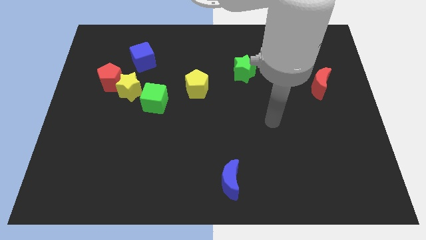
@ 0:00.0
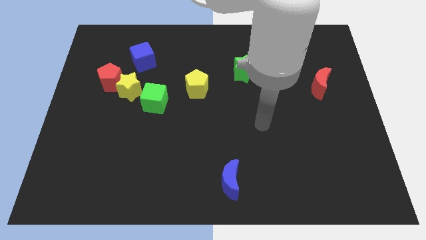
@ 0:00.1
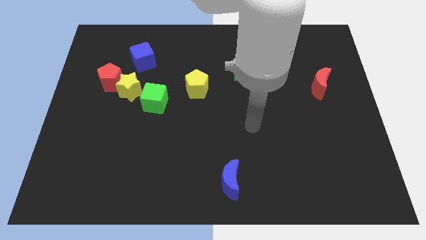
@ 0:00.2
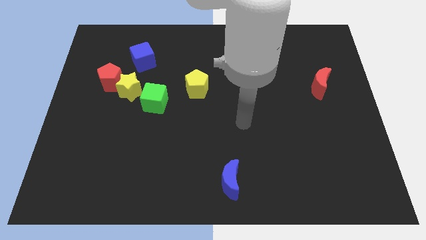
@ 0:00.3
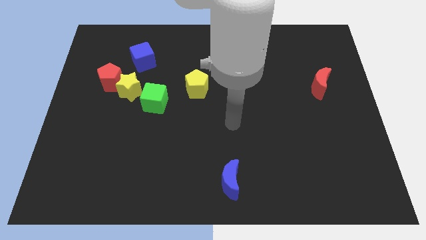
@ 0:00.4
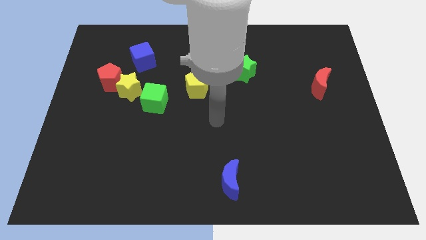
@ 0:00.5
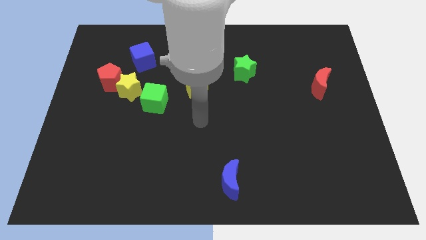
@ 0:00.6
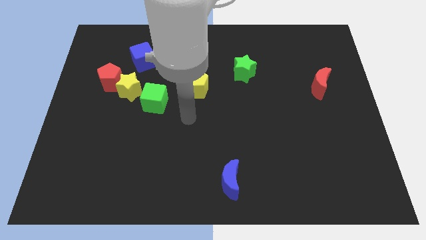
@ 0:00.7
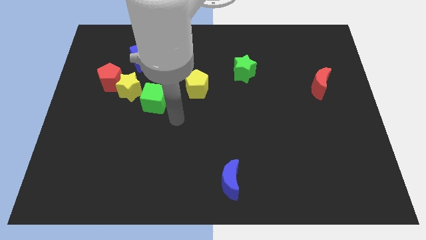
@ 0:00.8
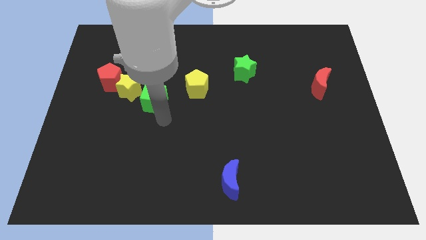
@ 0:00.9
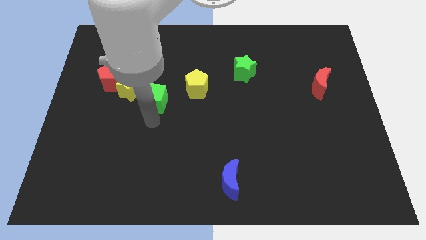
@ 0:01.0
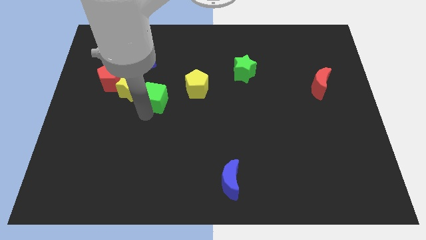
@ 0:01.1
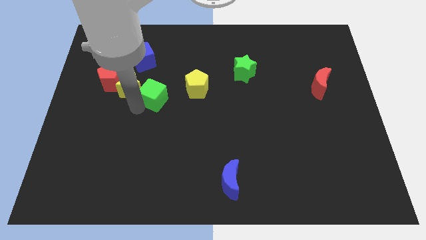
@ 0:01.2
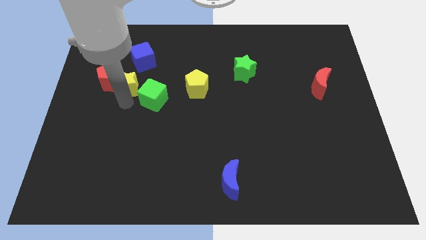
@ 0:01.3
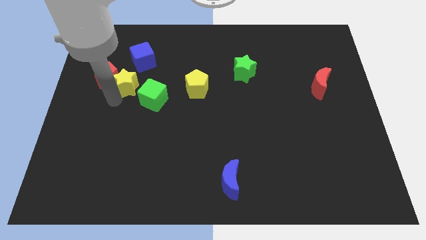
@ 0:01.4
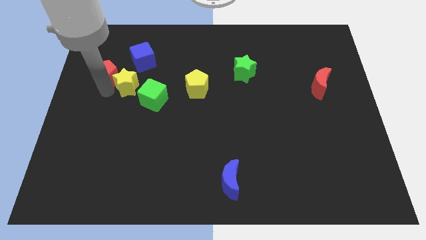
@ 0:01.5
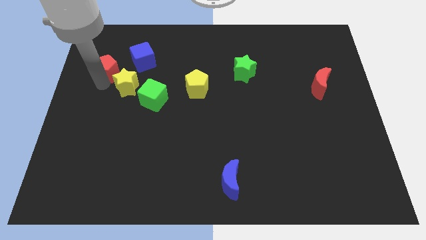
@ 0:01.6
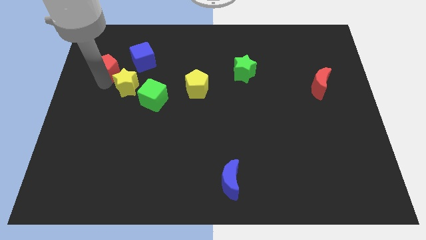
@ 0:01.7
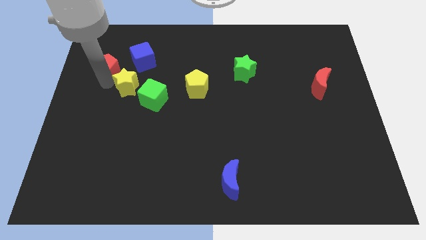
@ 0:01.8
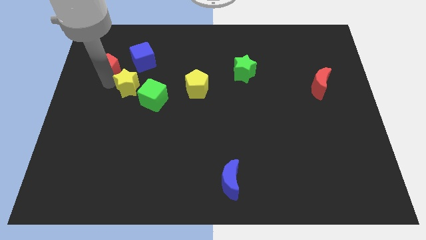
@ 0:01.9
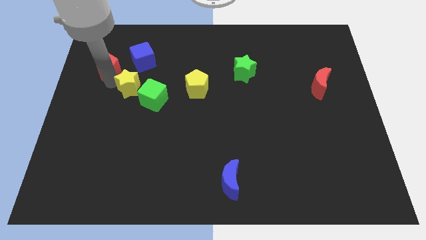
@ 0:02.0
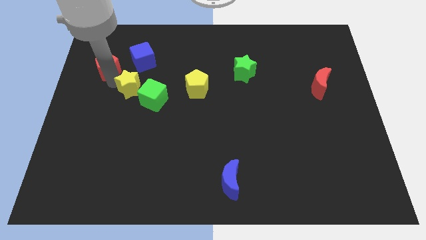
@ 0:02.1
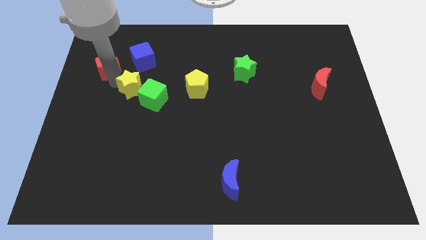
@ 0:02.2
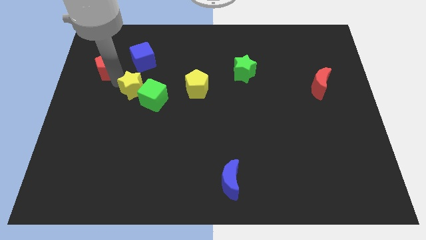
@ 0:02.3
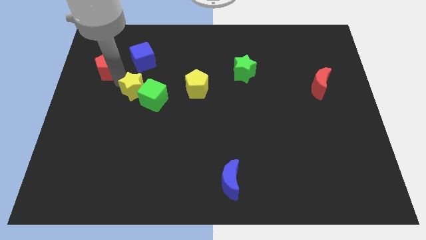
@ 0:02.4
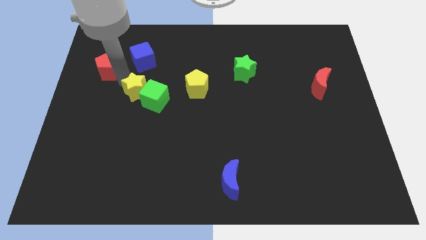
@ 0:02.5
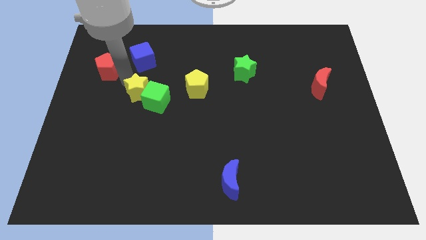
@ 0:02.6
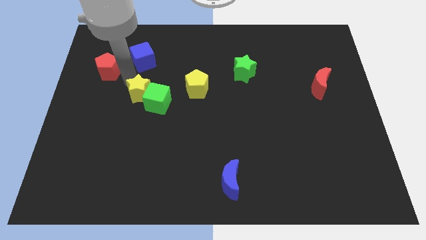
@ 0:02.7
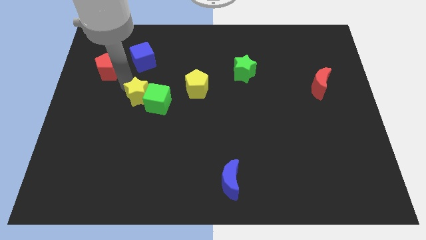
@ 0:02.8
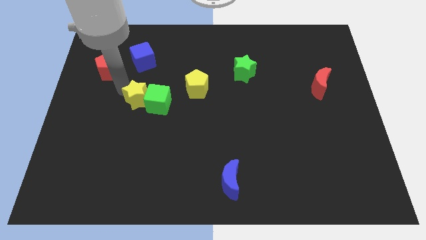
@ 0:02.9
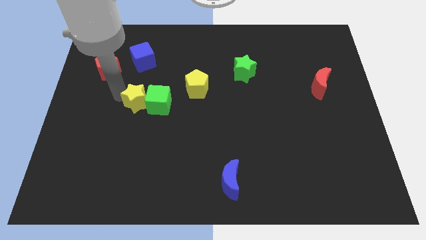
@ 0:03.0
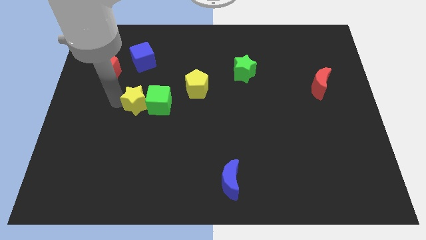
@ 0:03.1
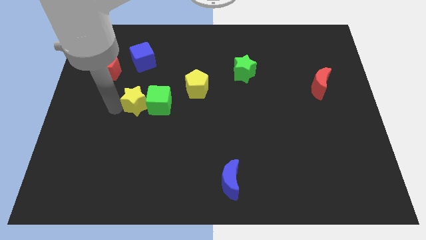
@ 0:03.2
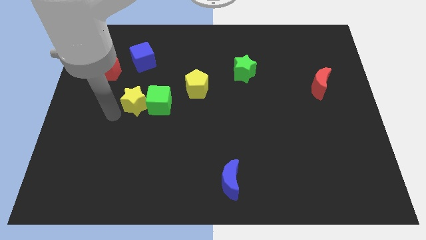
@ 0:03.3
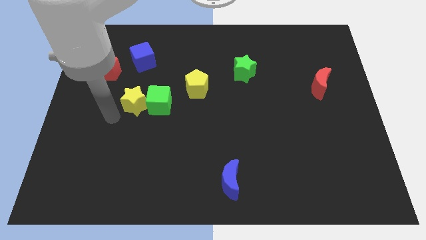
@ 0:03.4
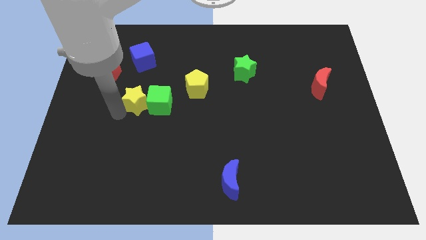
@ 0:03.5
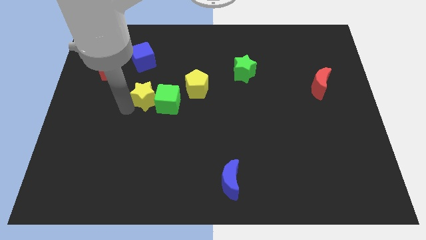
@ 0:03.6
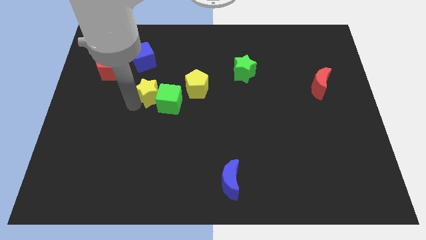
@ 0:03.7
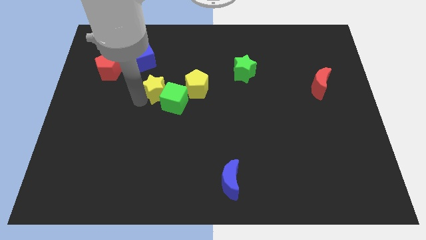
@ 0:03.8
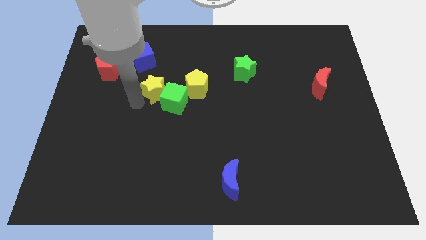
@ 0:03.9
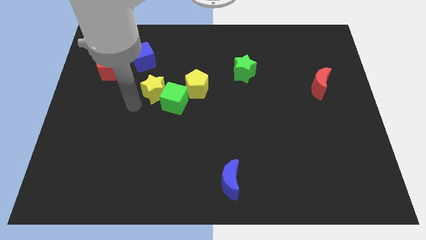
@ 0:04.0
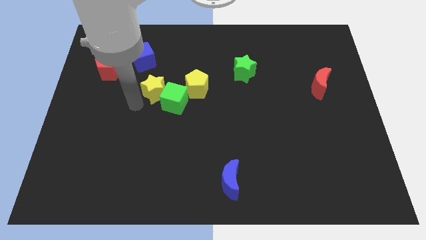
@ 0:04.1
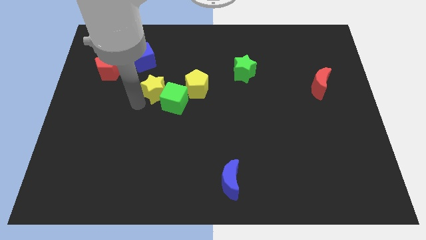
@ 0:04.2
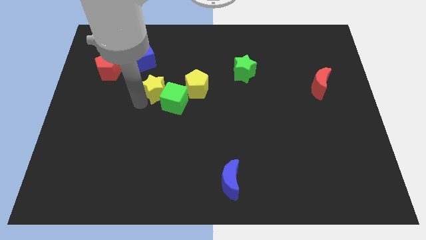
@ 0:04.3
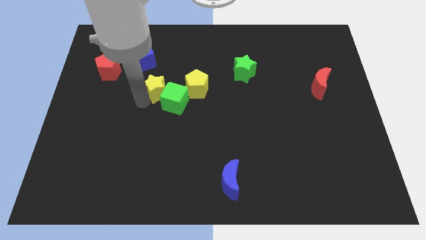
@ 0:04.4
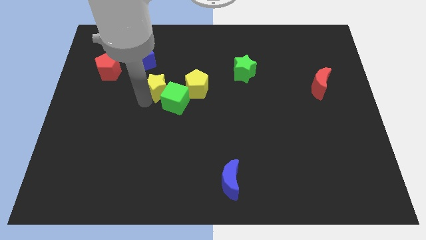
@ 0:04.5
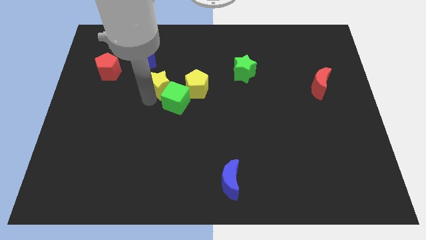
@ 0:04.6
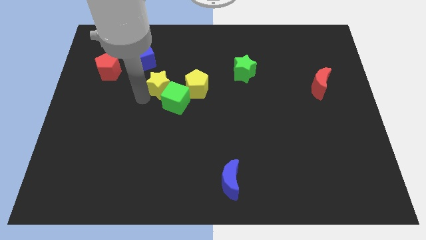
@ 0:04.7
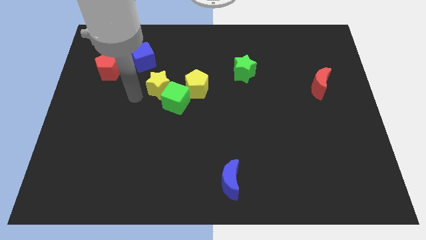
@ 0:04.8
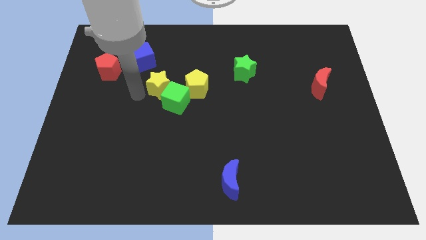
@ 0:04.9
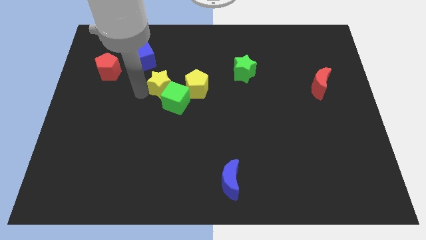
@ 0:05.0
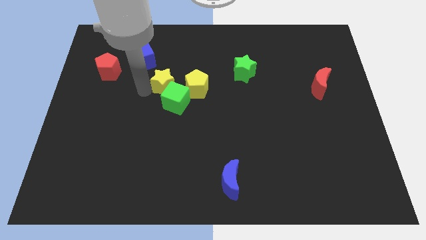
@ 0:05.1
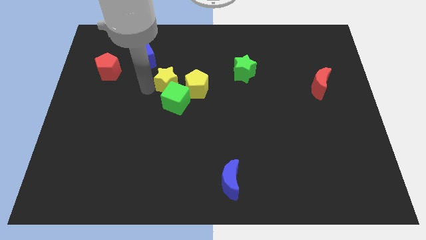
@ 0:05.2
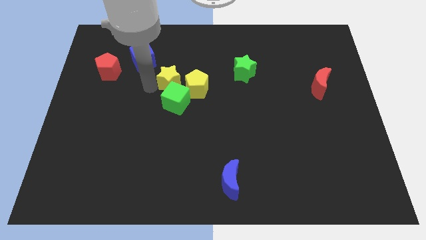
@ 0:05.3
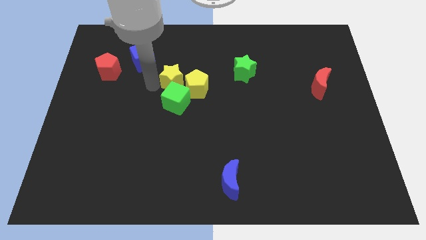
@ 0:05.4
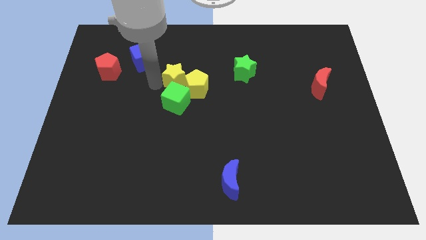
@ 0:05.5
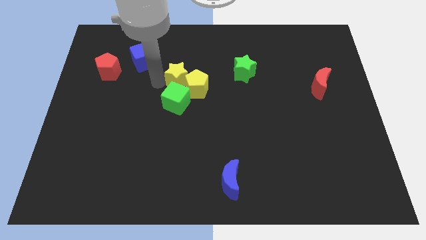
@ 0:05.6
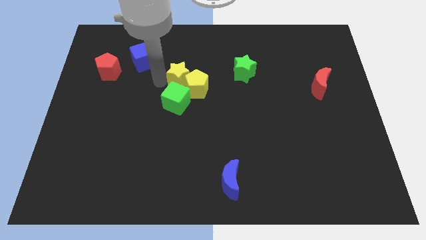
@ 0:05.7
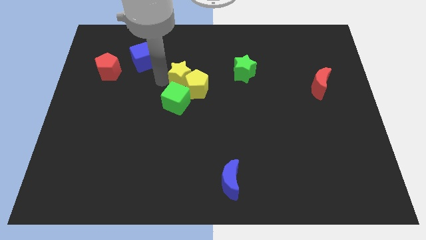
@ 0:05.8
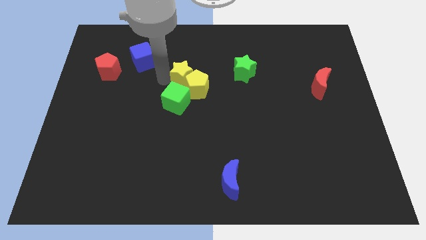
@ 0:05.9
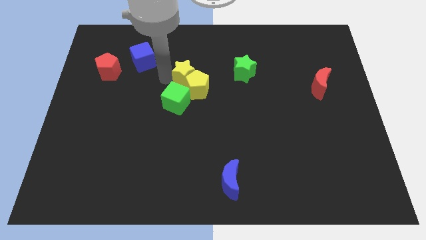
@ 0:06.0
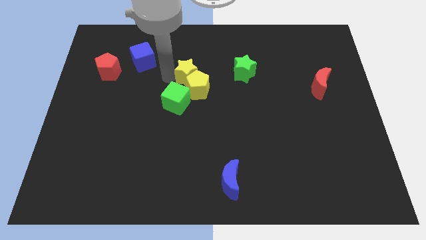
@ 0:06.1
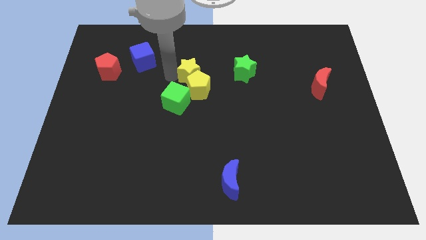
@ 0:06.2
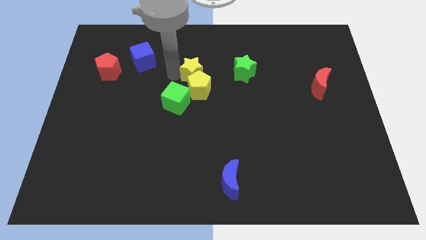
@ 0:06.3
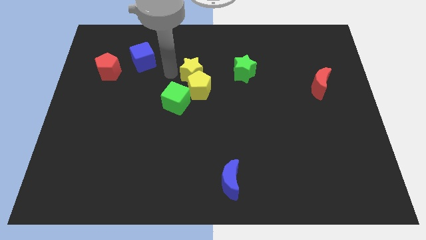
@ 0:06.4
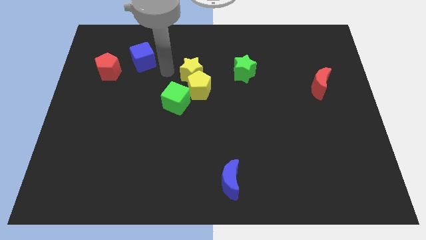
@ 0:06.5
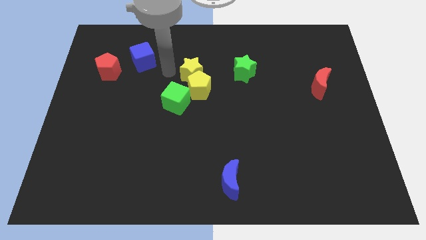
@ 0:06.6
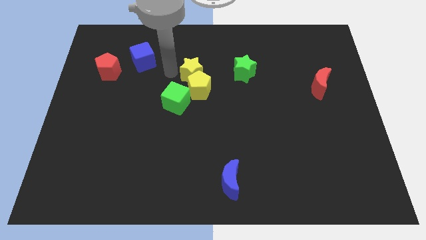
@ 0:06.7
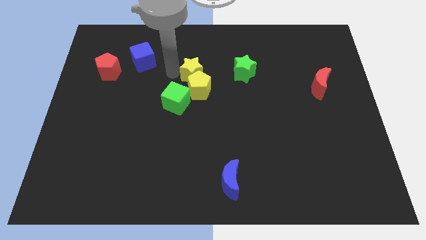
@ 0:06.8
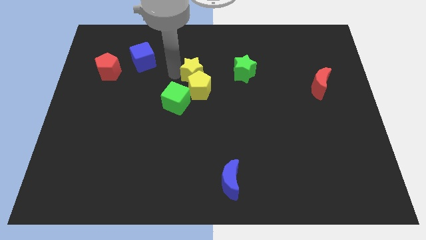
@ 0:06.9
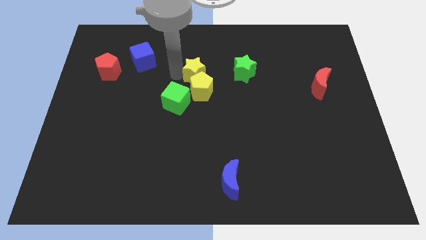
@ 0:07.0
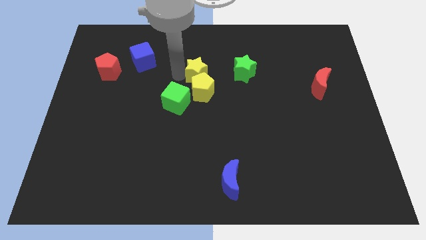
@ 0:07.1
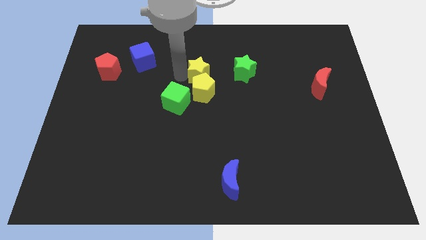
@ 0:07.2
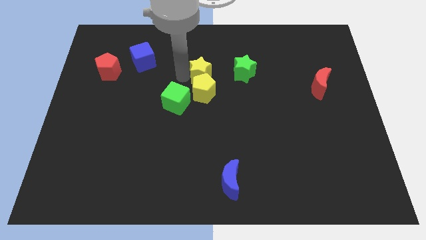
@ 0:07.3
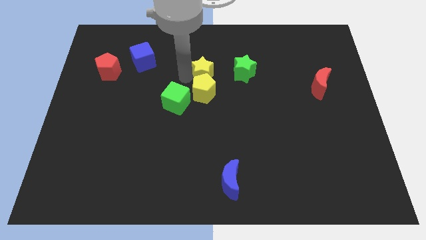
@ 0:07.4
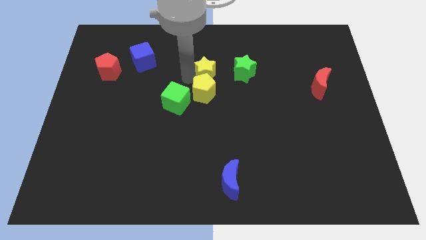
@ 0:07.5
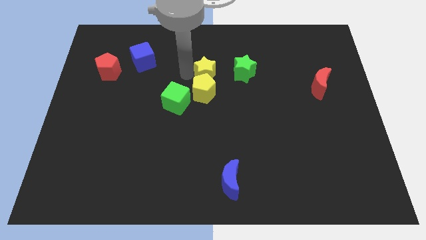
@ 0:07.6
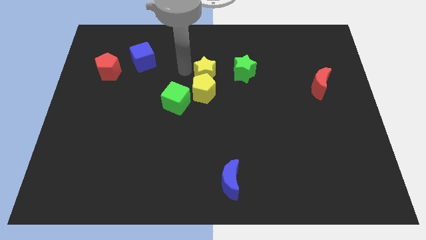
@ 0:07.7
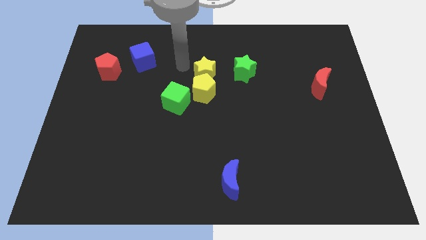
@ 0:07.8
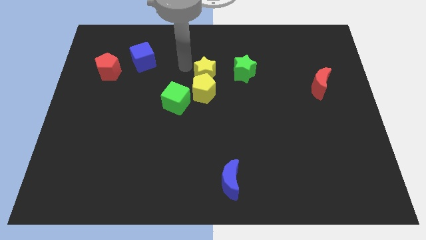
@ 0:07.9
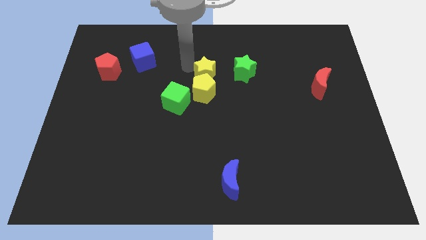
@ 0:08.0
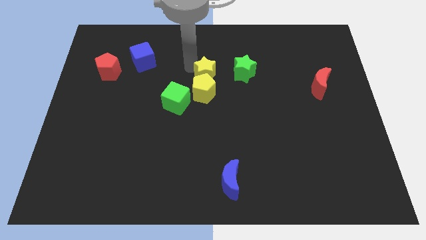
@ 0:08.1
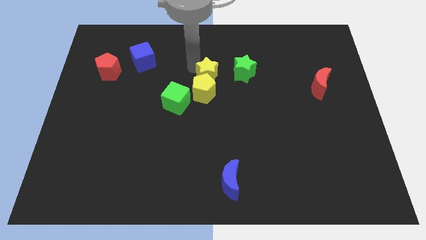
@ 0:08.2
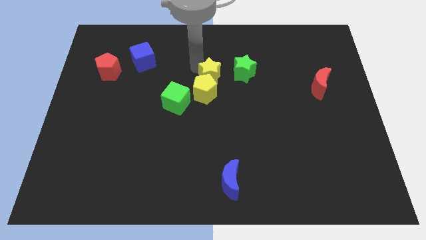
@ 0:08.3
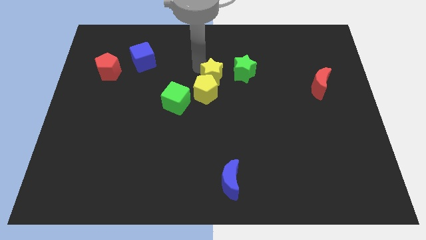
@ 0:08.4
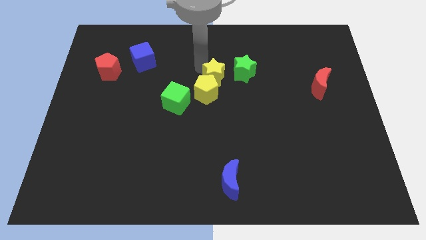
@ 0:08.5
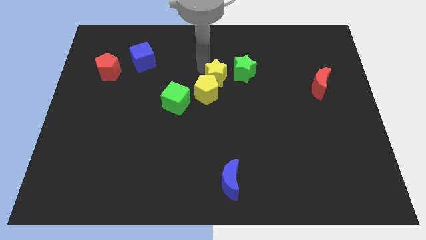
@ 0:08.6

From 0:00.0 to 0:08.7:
slide the yellow star right
